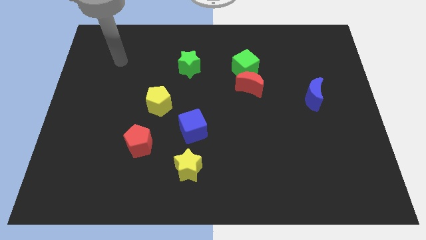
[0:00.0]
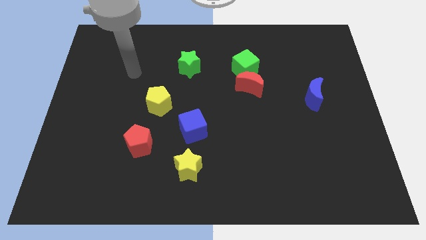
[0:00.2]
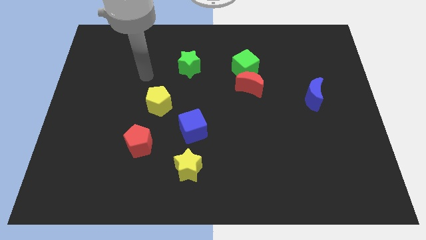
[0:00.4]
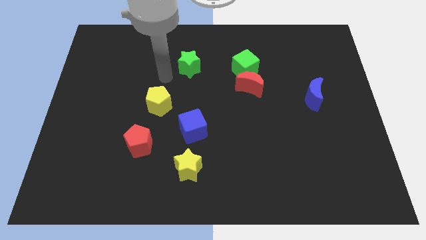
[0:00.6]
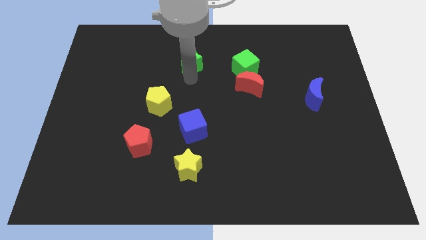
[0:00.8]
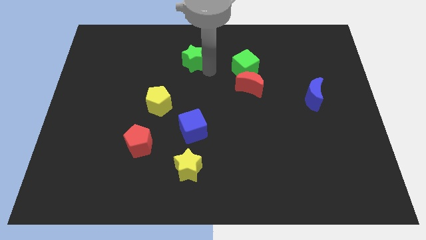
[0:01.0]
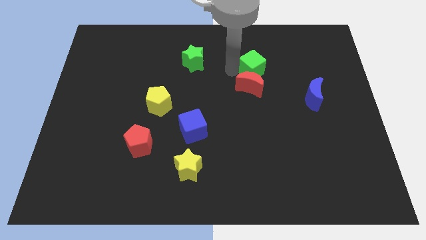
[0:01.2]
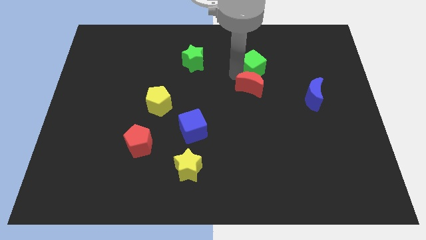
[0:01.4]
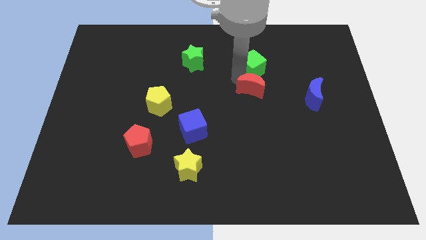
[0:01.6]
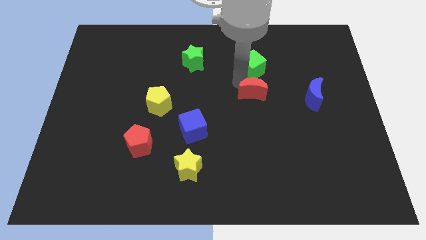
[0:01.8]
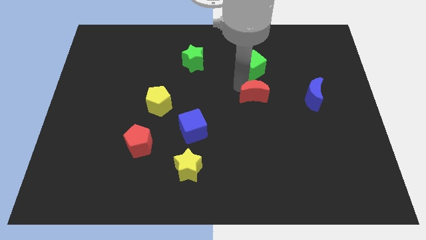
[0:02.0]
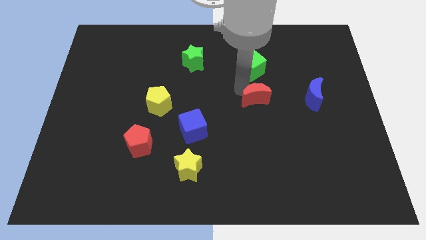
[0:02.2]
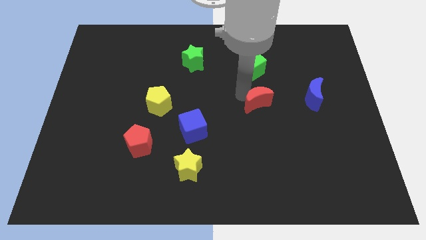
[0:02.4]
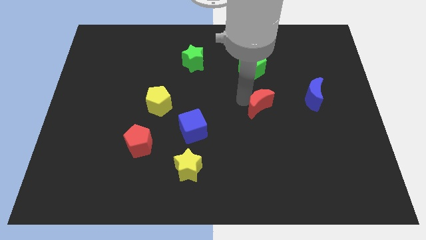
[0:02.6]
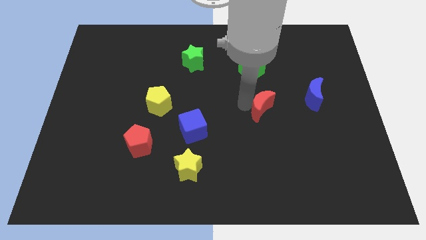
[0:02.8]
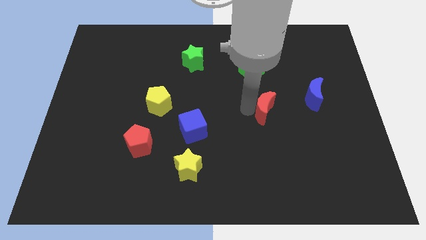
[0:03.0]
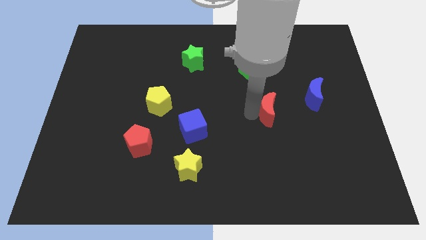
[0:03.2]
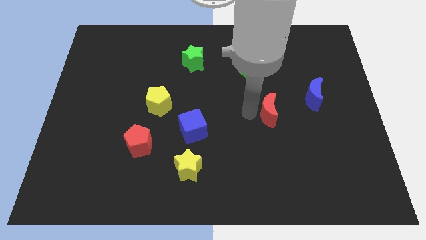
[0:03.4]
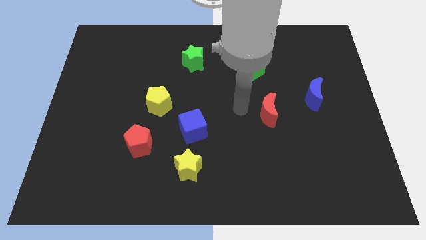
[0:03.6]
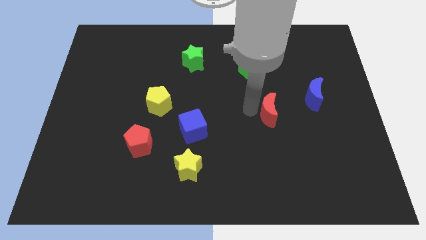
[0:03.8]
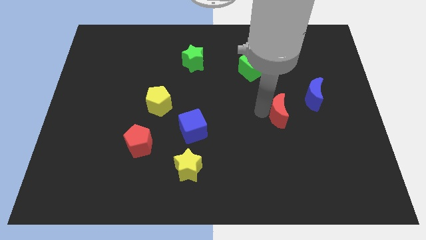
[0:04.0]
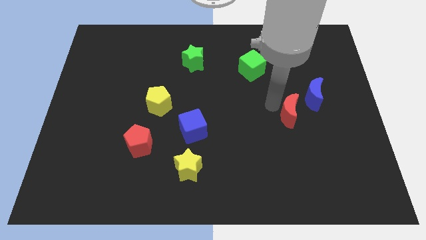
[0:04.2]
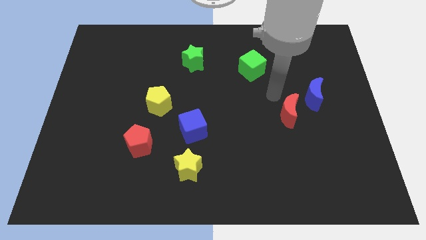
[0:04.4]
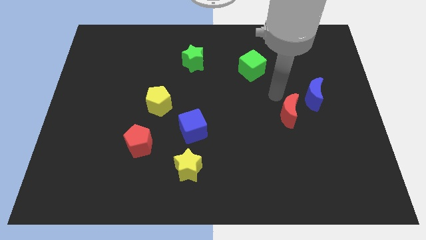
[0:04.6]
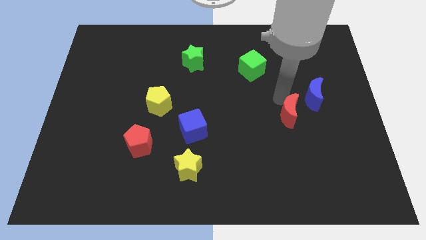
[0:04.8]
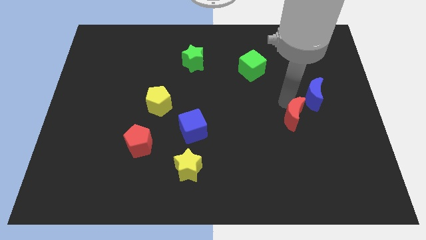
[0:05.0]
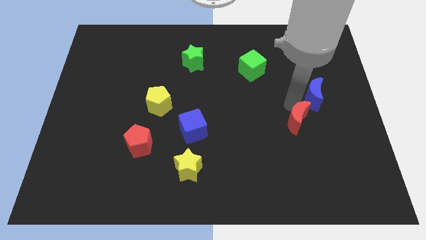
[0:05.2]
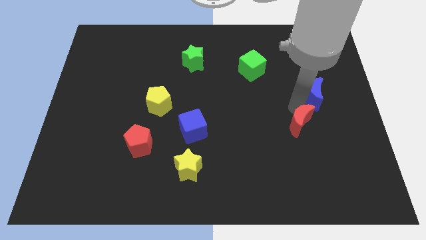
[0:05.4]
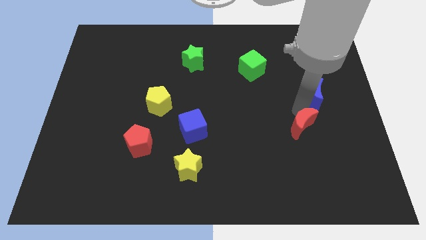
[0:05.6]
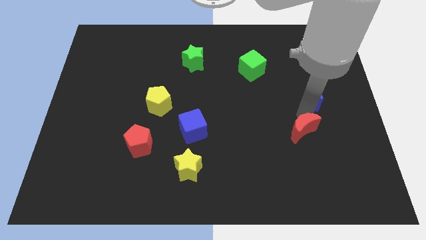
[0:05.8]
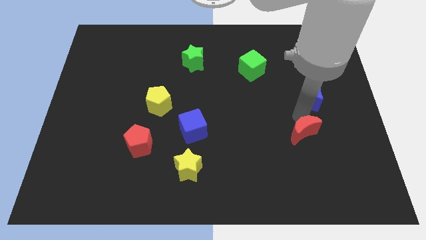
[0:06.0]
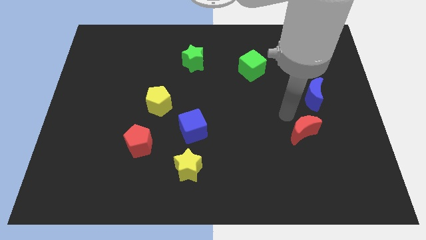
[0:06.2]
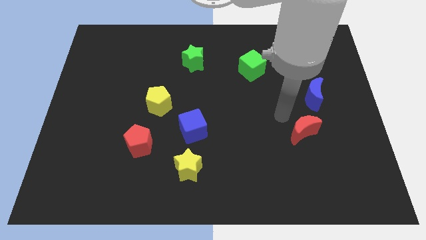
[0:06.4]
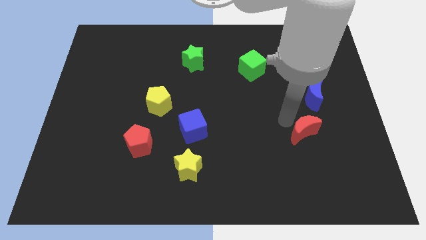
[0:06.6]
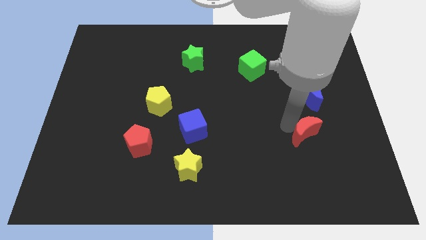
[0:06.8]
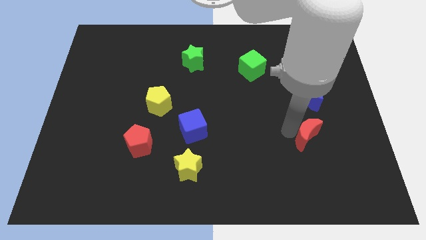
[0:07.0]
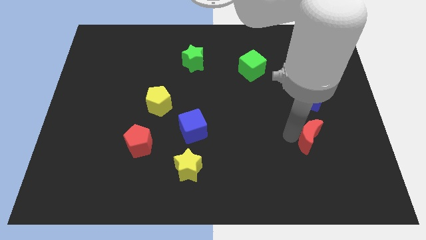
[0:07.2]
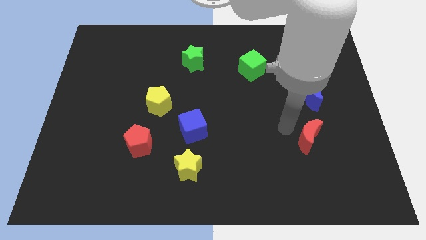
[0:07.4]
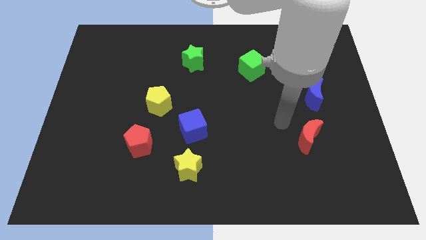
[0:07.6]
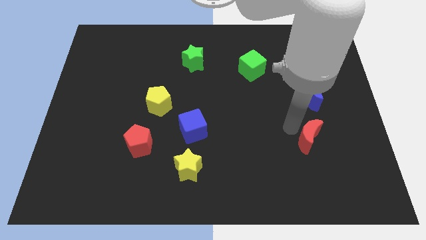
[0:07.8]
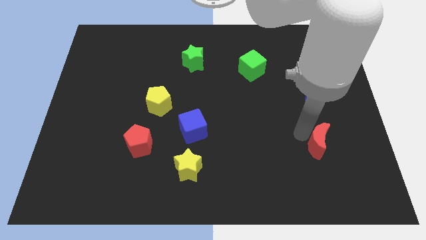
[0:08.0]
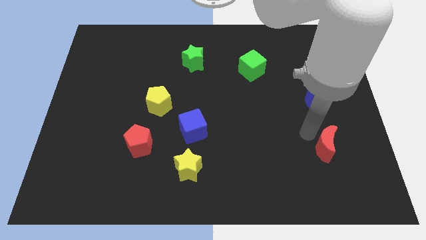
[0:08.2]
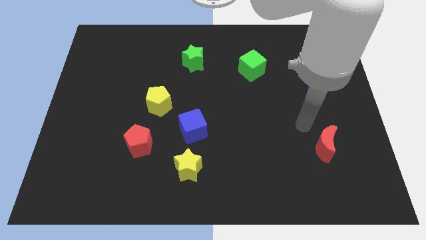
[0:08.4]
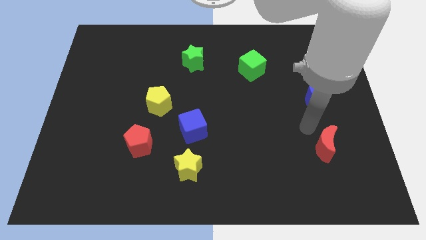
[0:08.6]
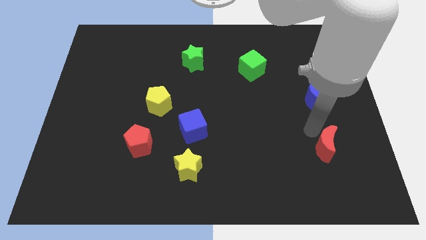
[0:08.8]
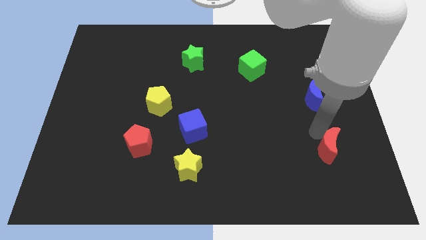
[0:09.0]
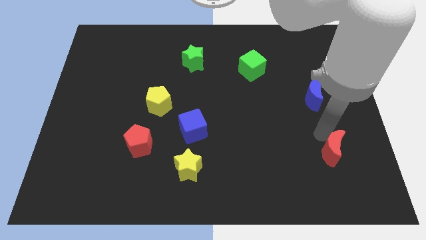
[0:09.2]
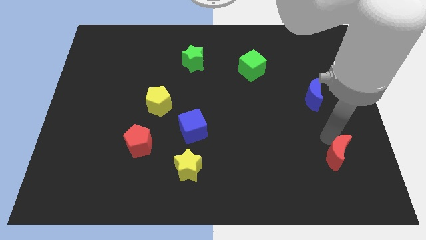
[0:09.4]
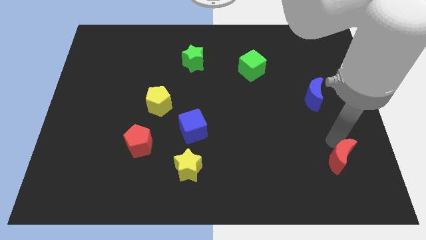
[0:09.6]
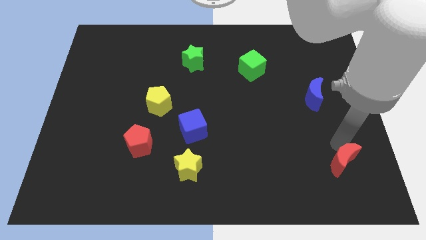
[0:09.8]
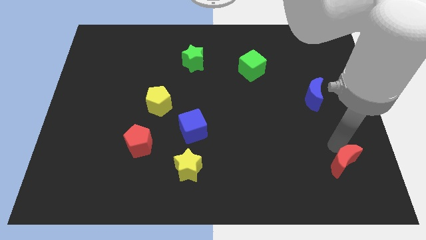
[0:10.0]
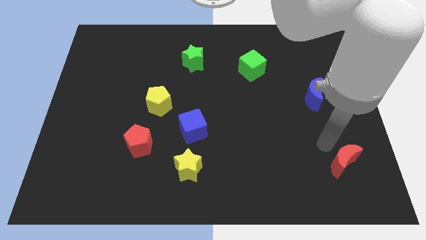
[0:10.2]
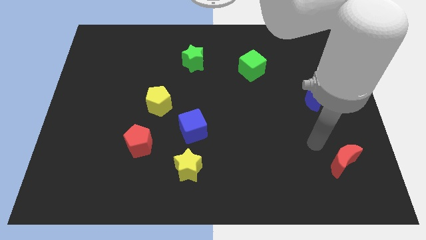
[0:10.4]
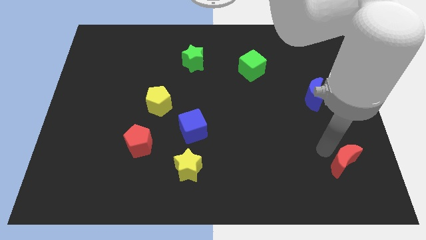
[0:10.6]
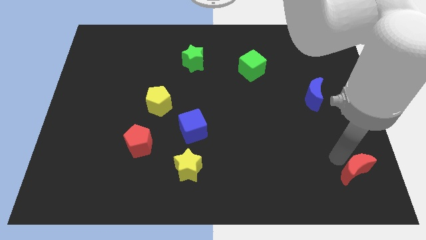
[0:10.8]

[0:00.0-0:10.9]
put the red moon to the bottom right of the board
